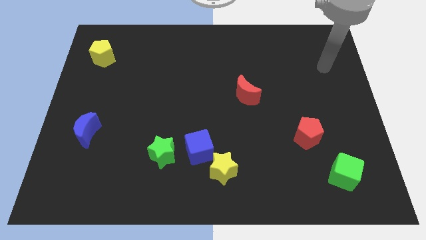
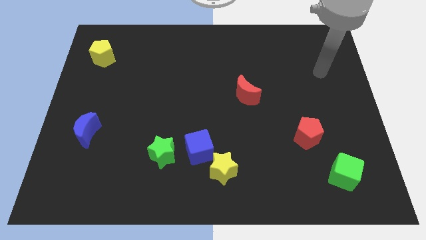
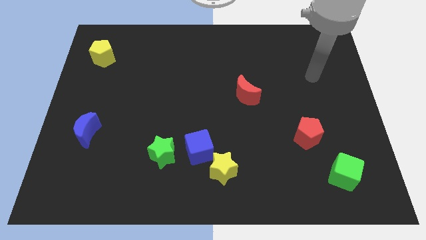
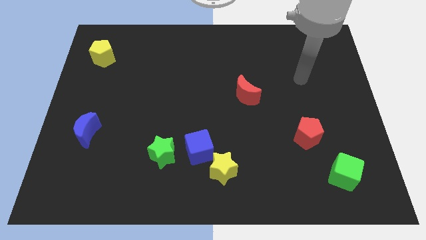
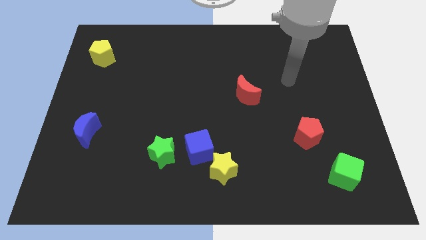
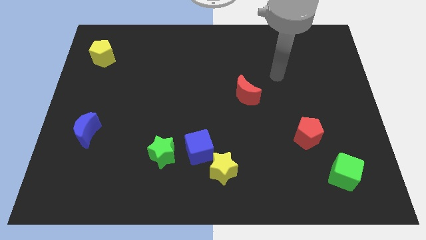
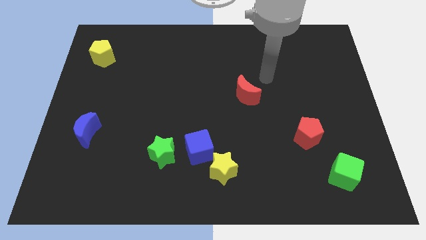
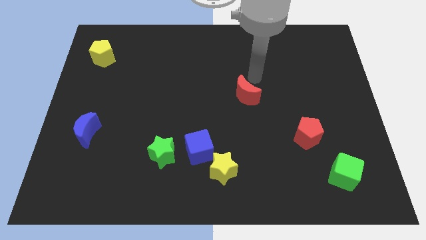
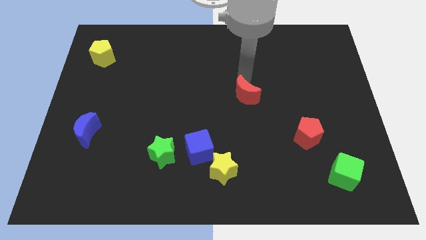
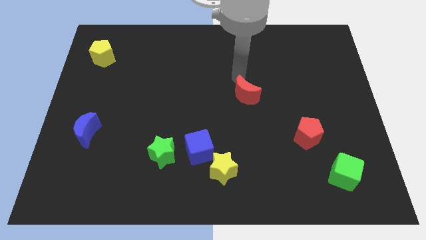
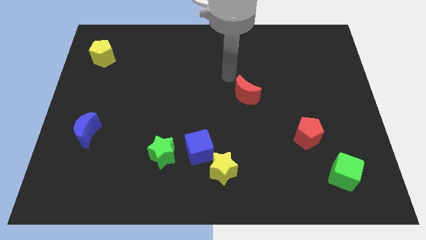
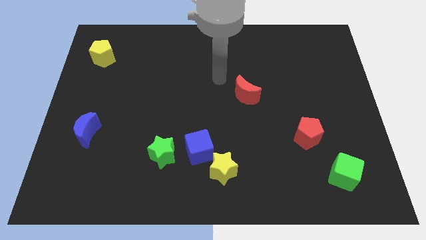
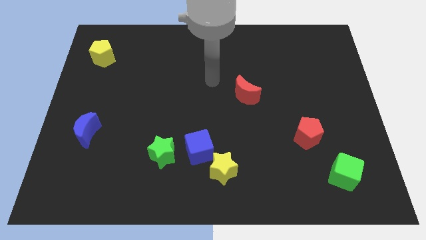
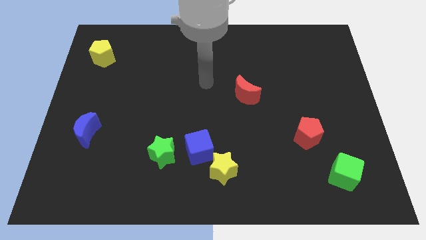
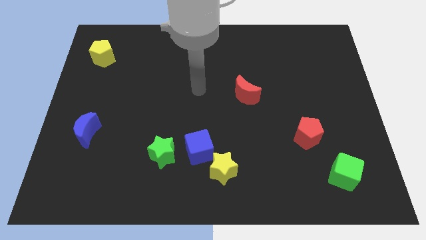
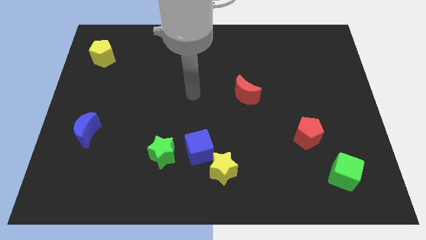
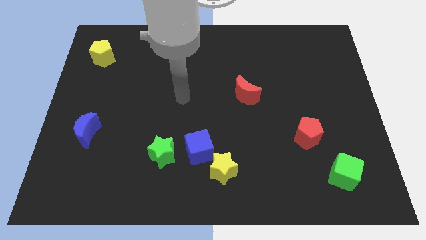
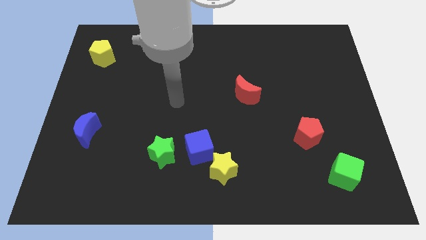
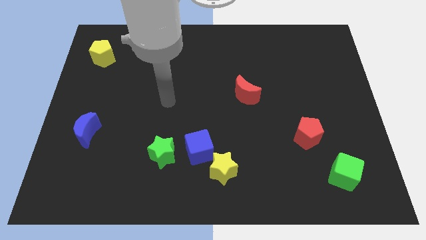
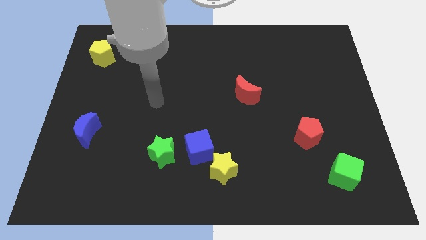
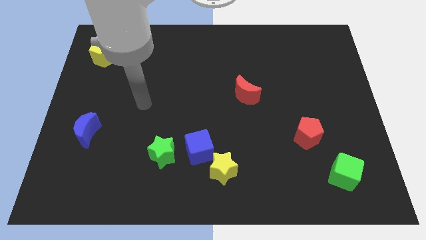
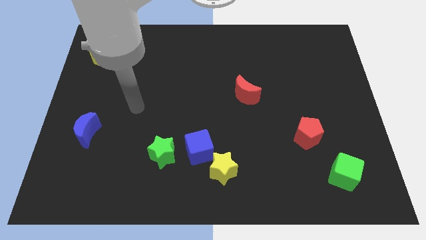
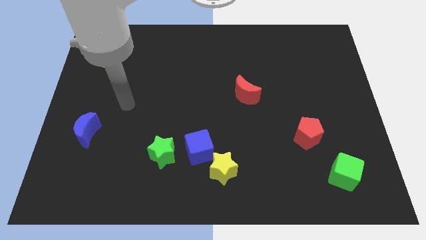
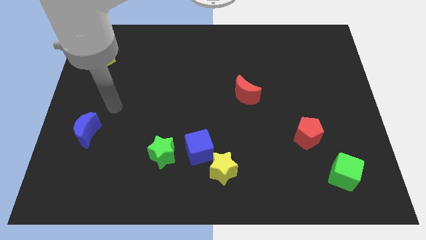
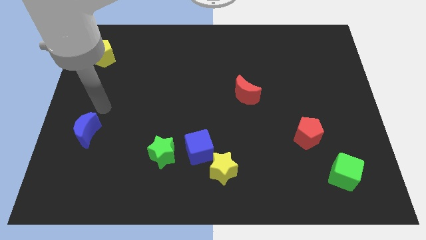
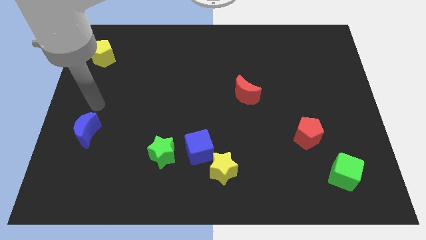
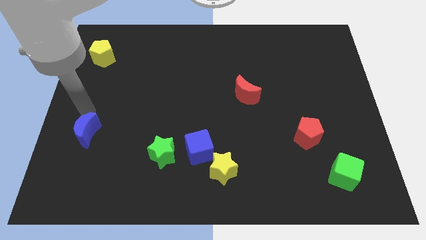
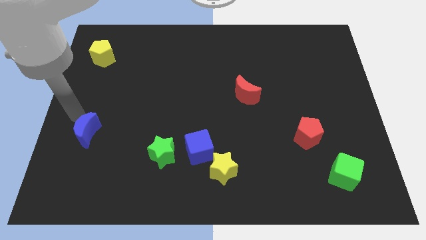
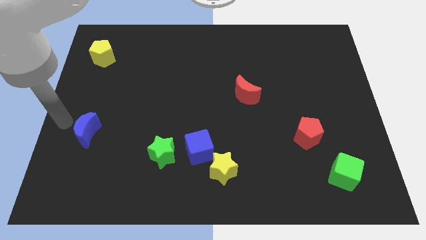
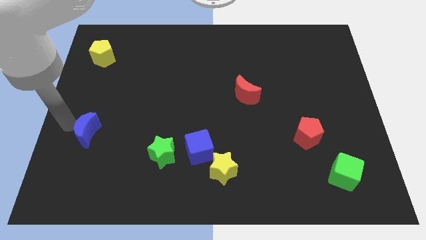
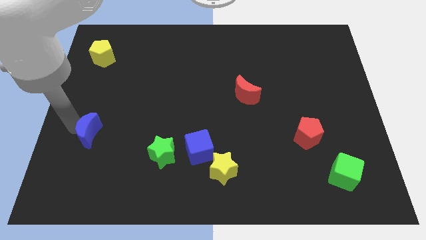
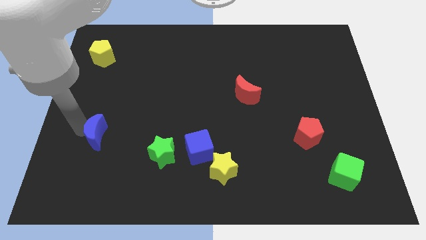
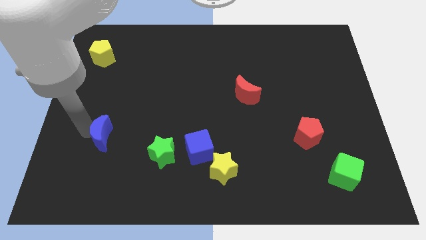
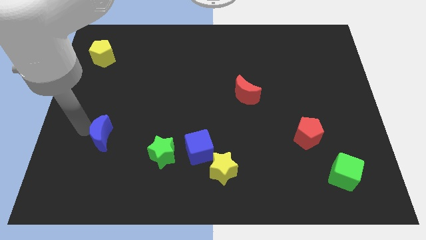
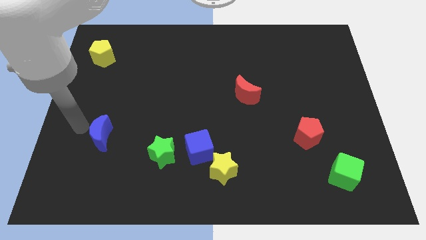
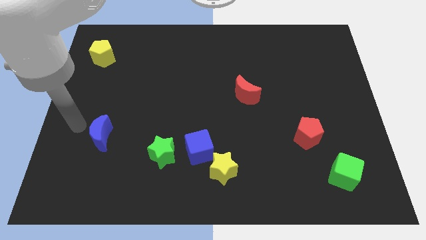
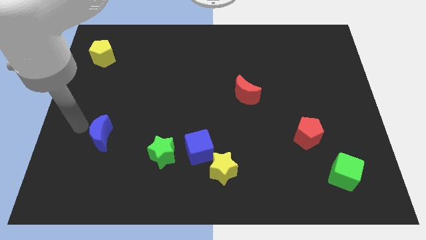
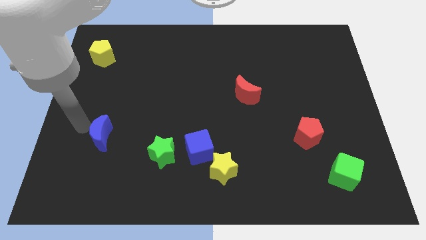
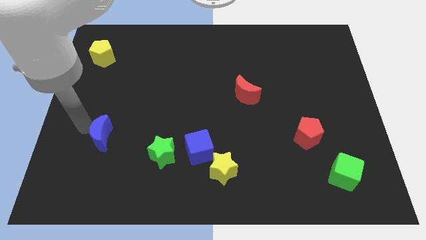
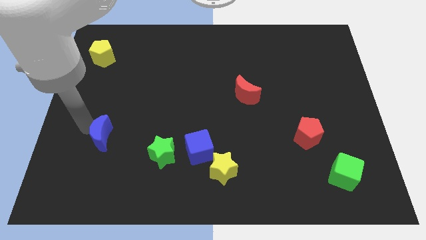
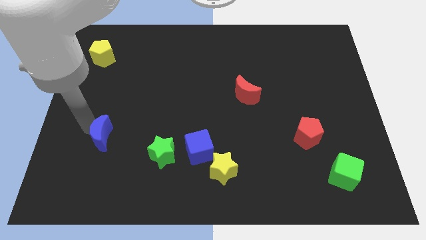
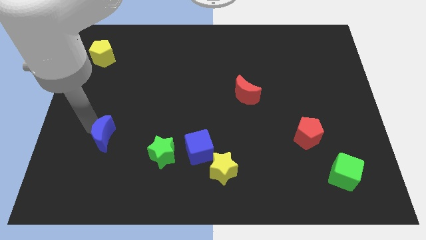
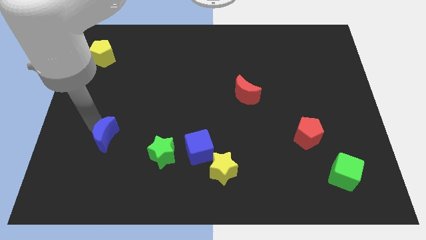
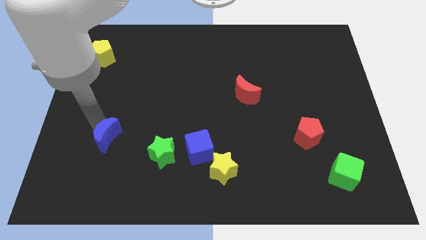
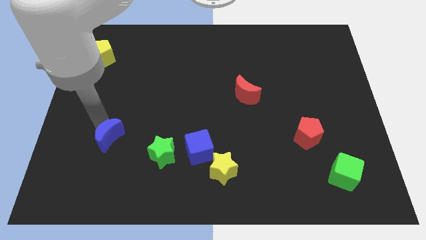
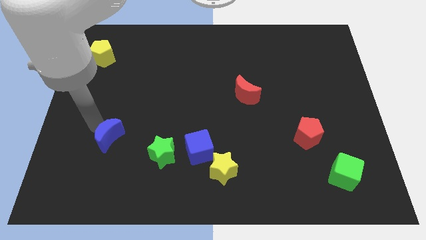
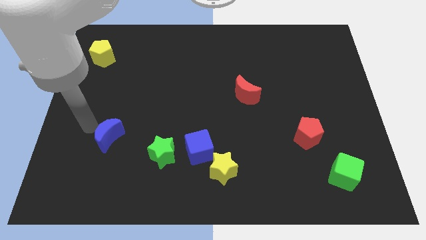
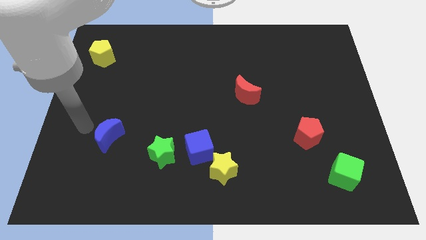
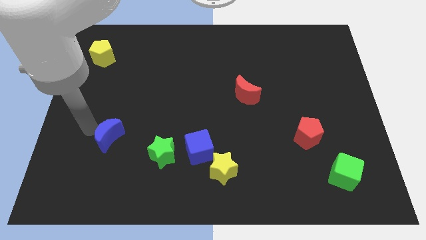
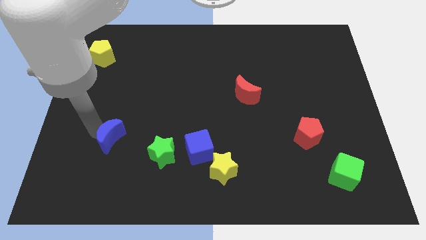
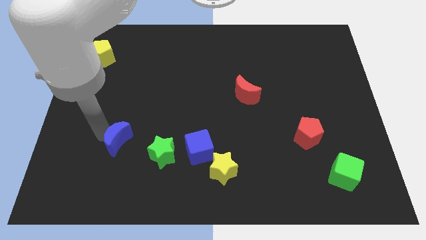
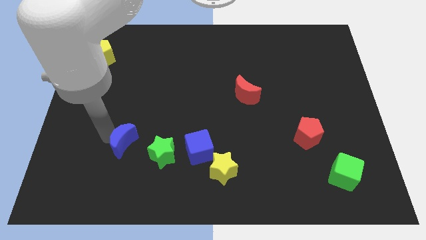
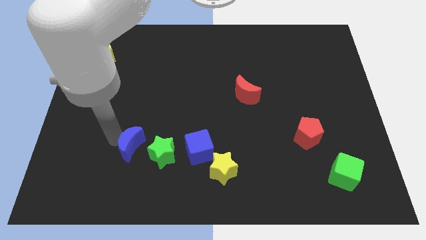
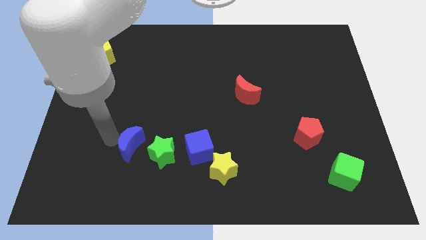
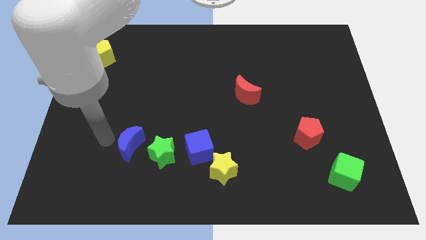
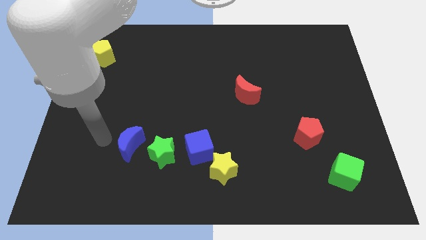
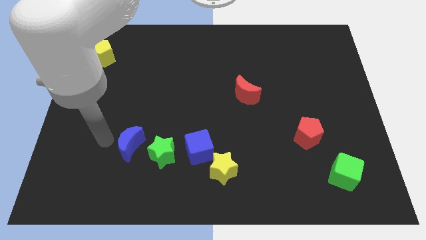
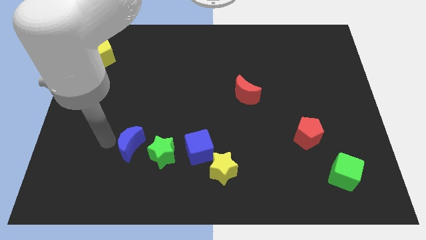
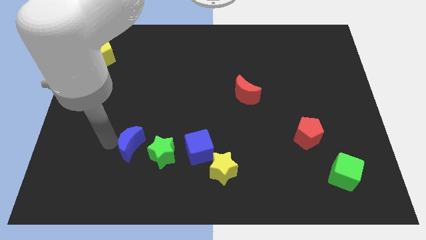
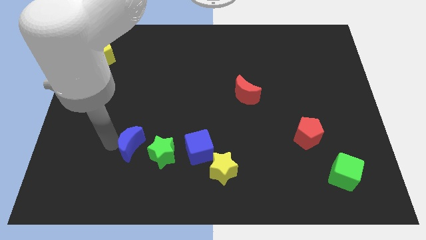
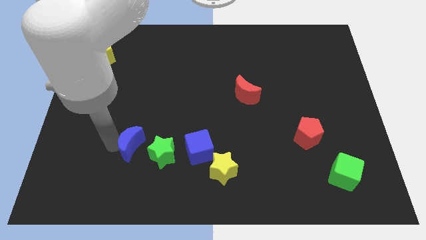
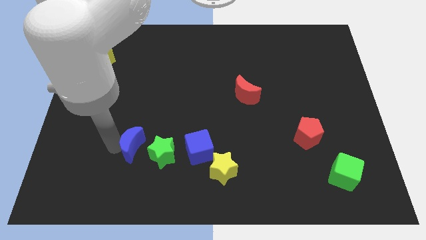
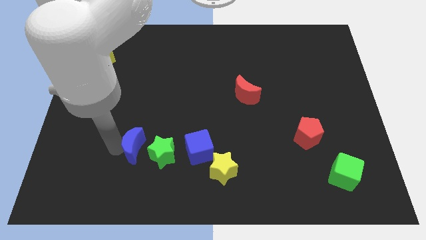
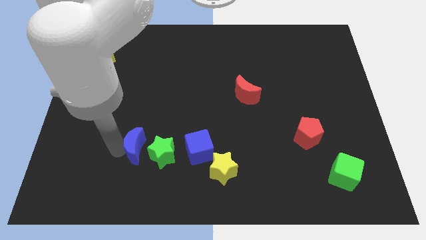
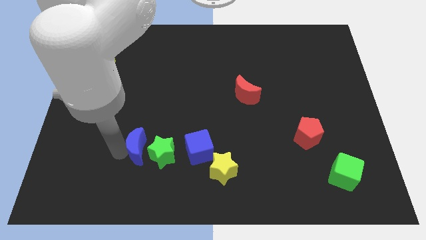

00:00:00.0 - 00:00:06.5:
put the blue moon to the green star
